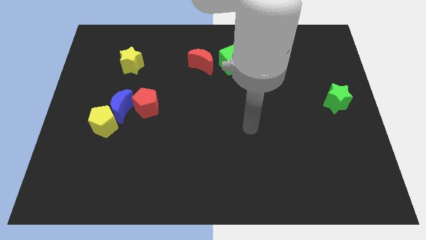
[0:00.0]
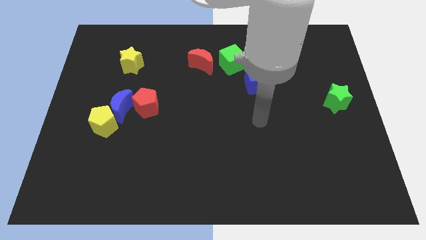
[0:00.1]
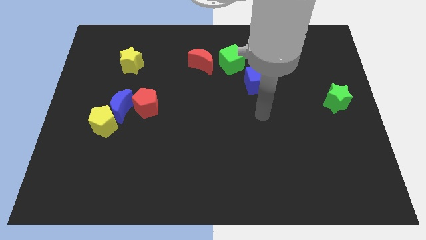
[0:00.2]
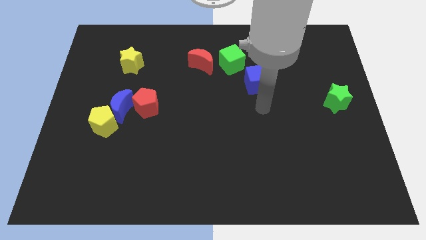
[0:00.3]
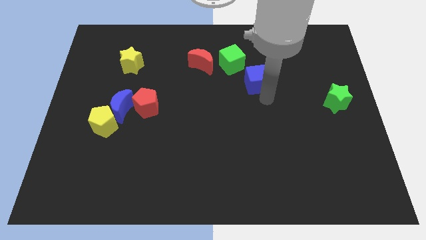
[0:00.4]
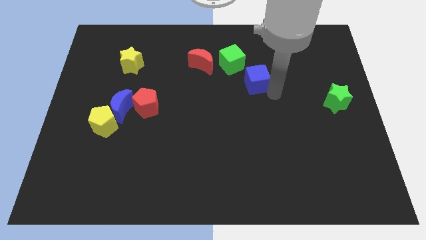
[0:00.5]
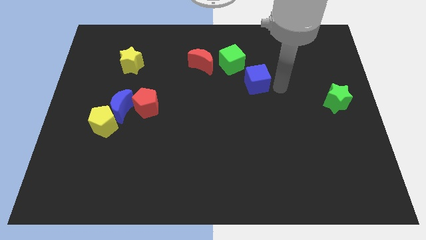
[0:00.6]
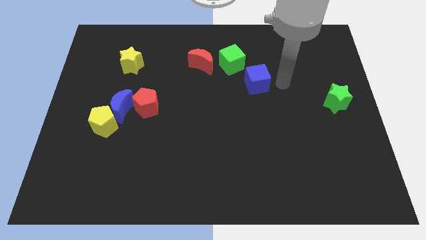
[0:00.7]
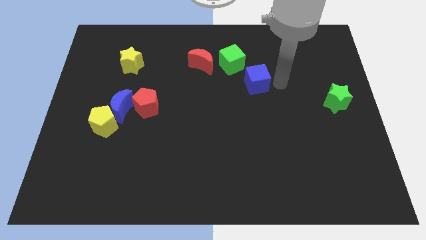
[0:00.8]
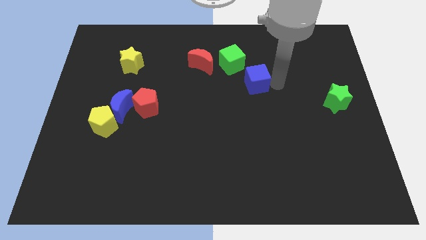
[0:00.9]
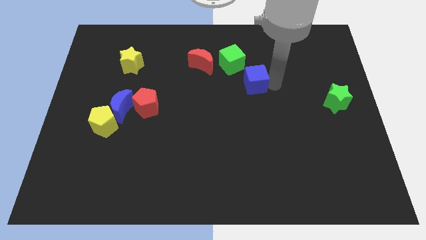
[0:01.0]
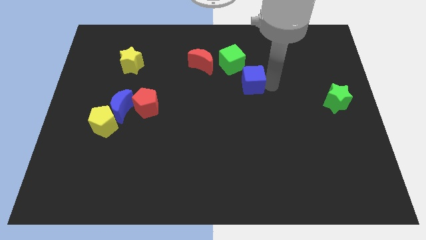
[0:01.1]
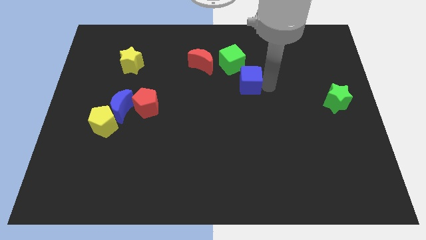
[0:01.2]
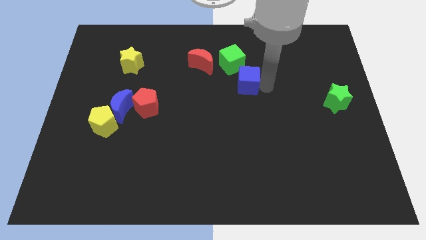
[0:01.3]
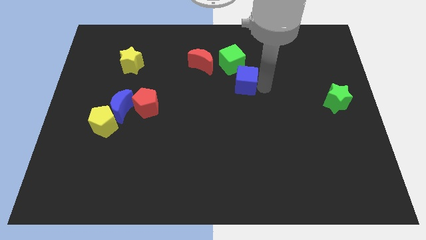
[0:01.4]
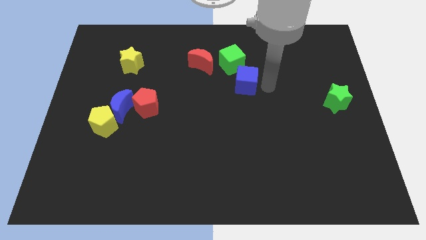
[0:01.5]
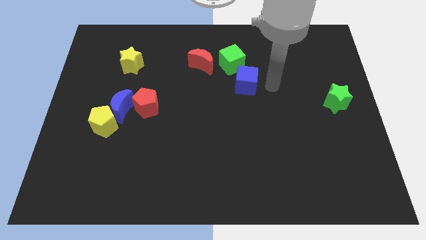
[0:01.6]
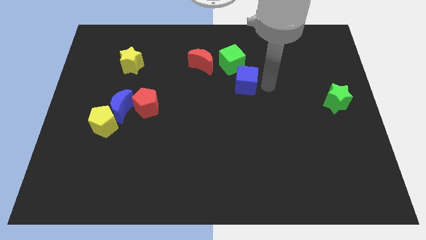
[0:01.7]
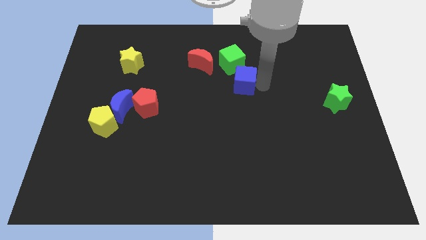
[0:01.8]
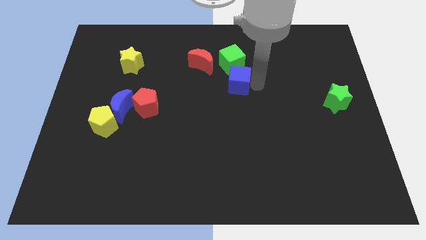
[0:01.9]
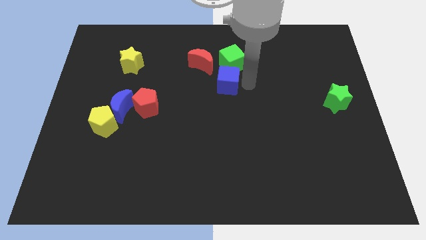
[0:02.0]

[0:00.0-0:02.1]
push the blue cube slightly to the left

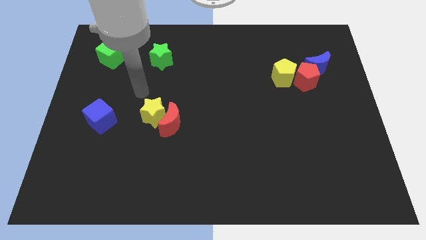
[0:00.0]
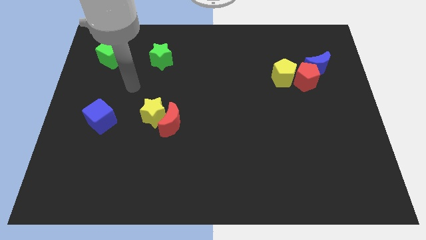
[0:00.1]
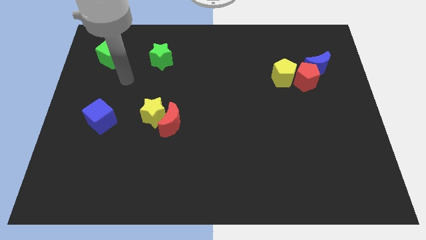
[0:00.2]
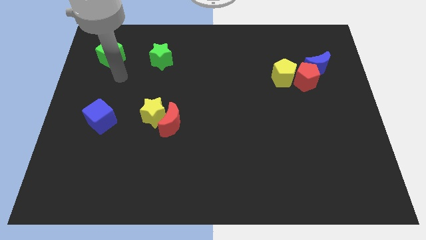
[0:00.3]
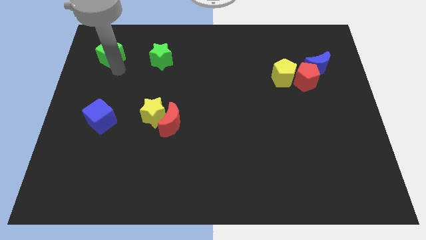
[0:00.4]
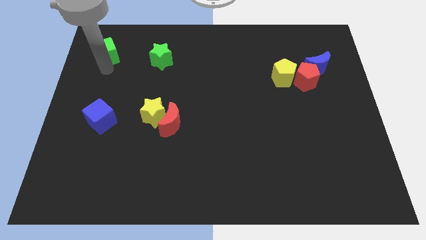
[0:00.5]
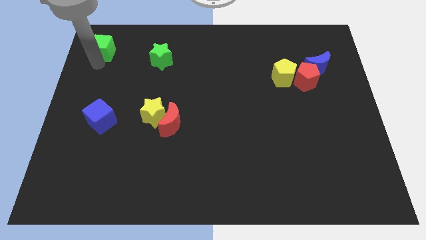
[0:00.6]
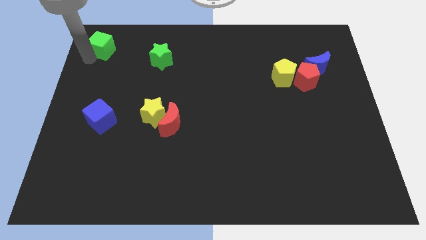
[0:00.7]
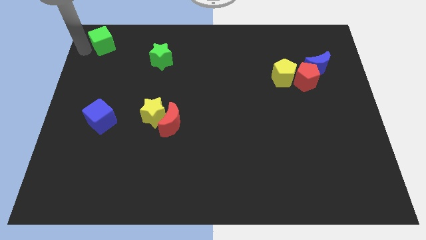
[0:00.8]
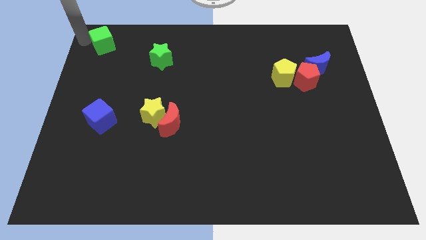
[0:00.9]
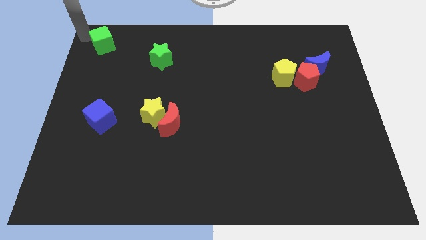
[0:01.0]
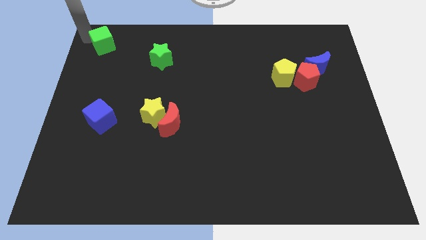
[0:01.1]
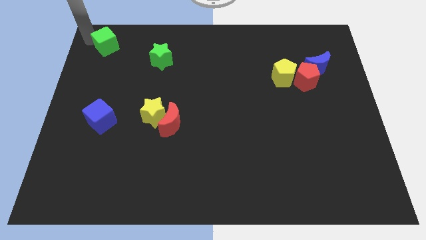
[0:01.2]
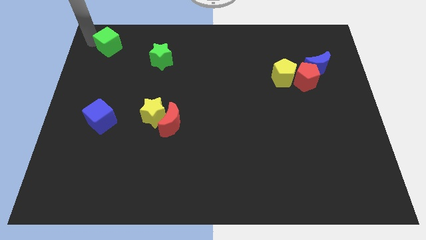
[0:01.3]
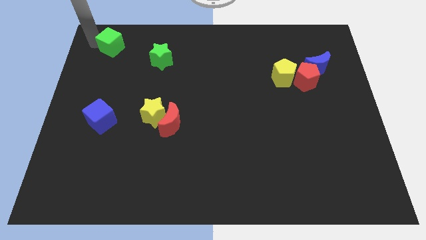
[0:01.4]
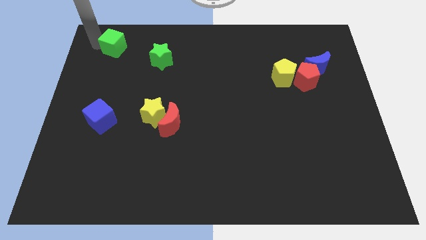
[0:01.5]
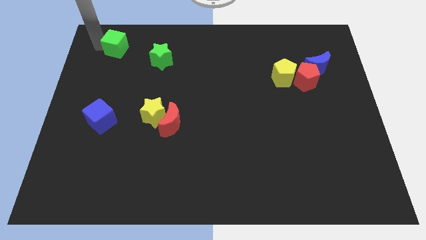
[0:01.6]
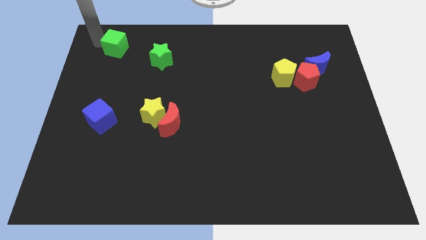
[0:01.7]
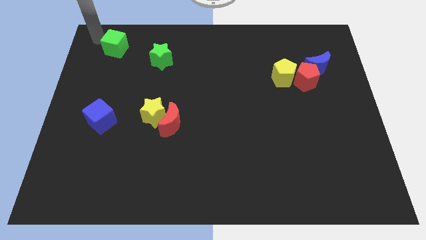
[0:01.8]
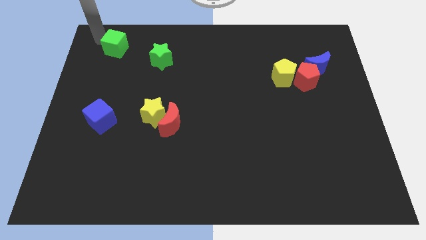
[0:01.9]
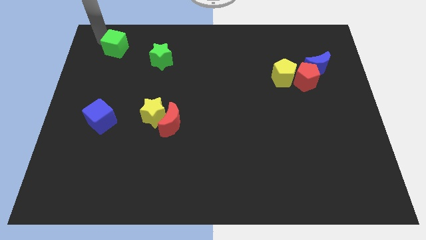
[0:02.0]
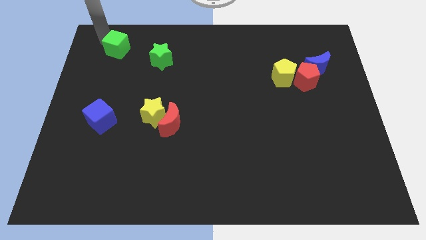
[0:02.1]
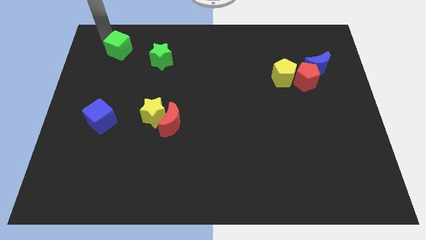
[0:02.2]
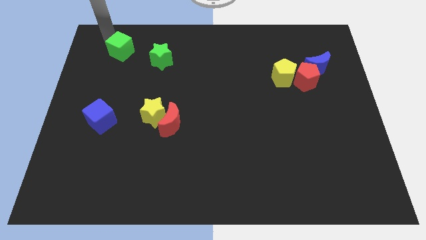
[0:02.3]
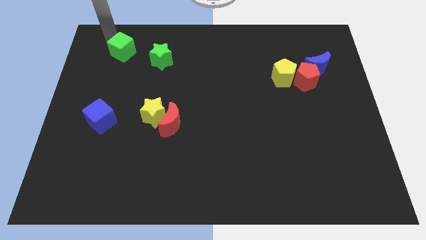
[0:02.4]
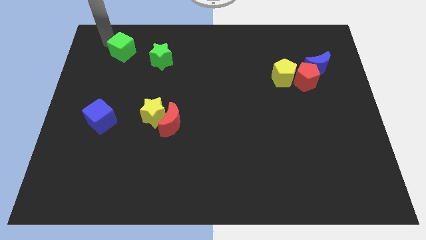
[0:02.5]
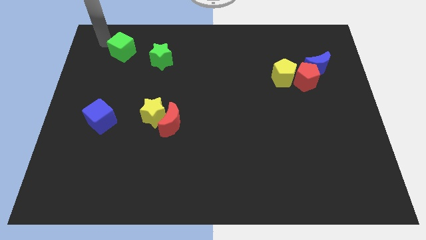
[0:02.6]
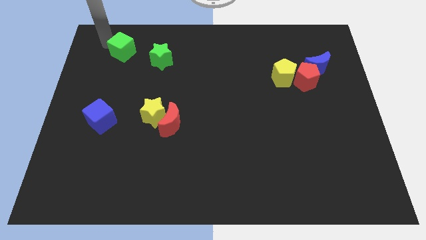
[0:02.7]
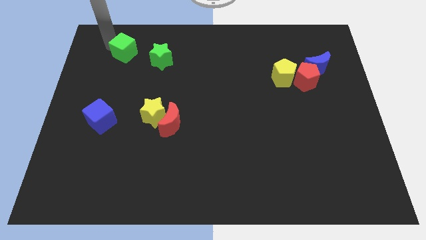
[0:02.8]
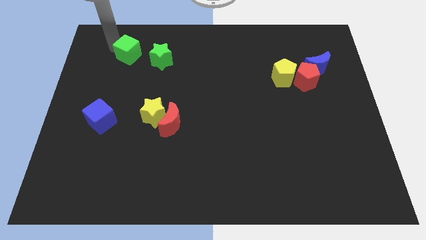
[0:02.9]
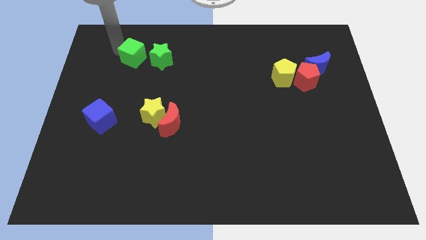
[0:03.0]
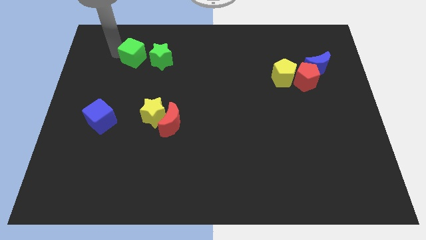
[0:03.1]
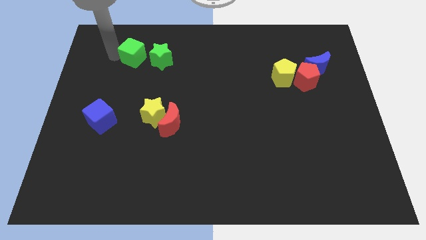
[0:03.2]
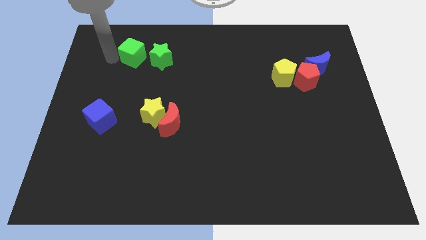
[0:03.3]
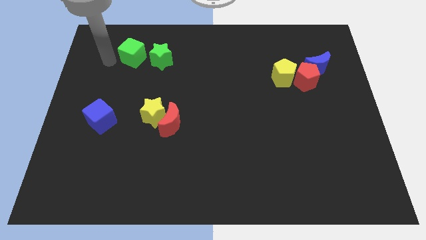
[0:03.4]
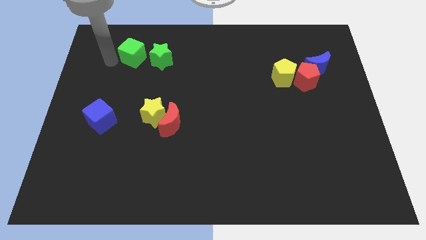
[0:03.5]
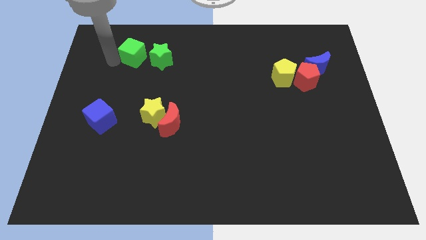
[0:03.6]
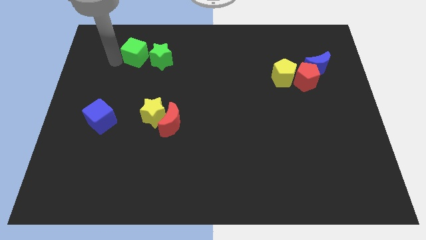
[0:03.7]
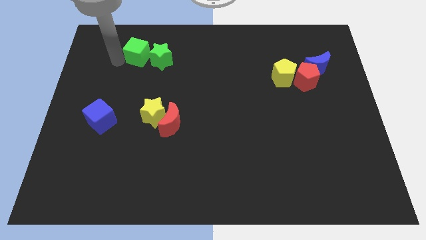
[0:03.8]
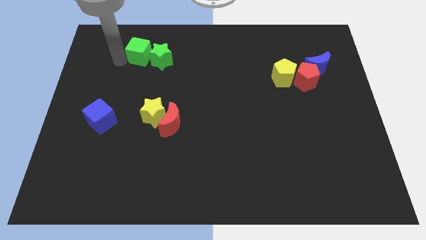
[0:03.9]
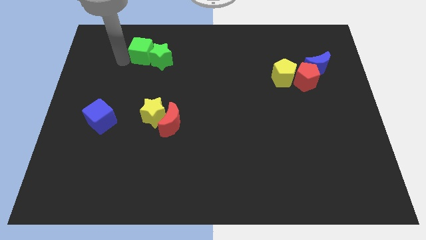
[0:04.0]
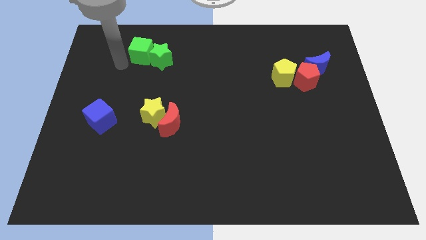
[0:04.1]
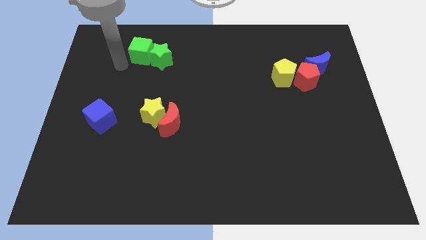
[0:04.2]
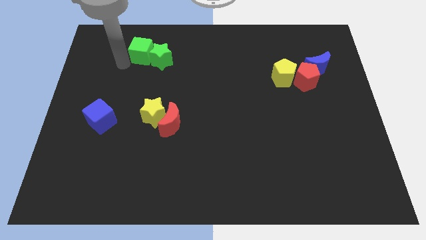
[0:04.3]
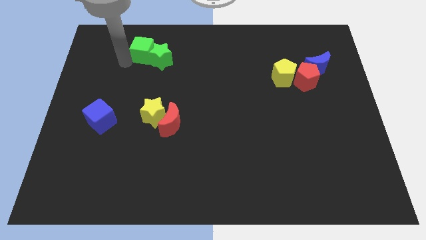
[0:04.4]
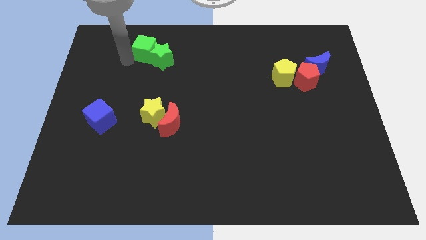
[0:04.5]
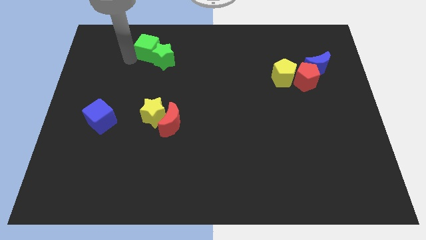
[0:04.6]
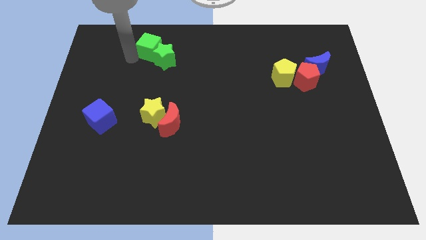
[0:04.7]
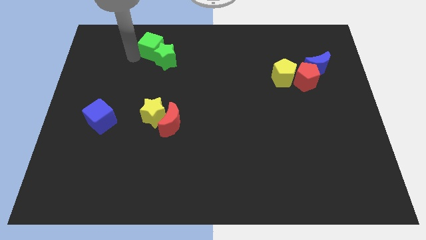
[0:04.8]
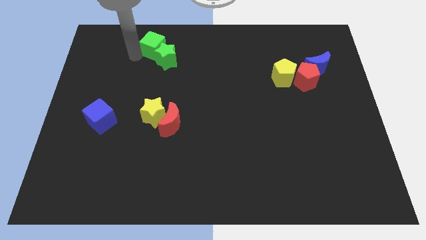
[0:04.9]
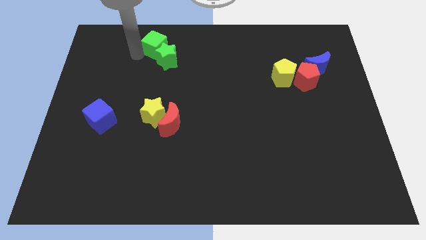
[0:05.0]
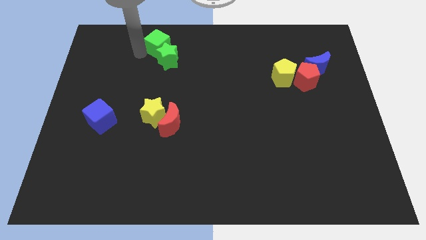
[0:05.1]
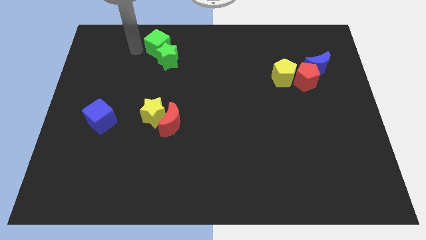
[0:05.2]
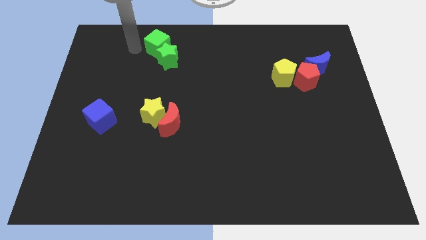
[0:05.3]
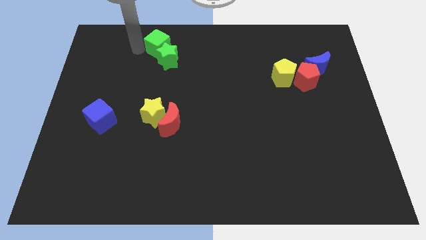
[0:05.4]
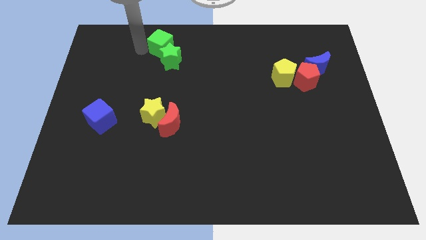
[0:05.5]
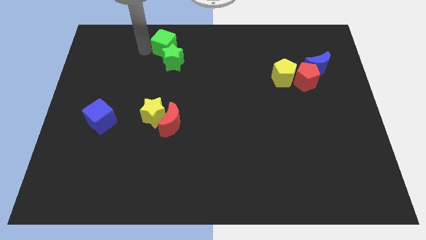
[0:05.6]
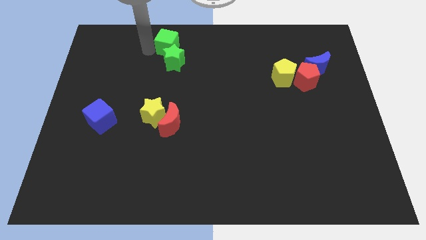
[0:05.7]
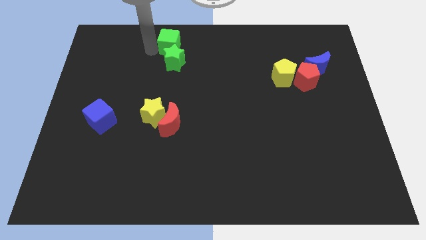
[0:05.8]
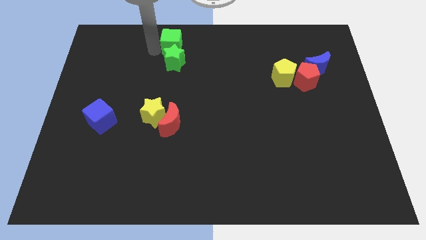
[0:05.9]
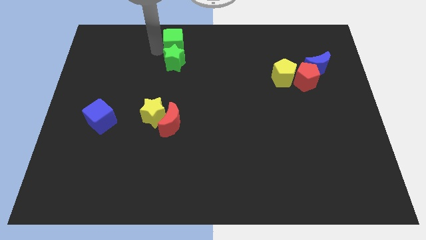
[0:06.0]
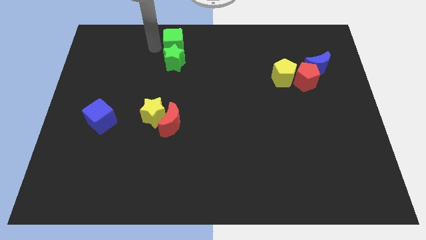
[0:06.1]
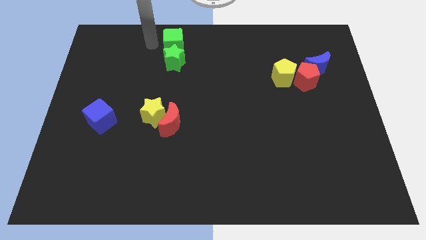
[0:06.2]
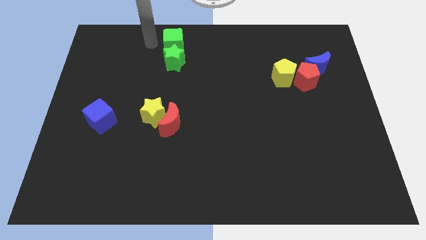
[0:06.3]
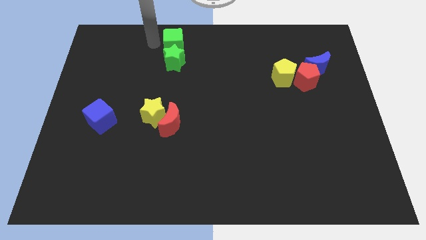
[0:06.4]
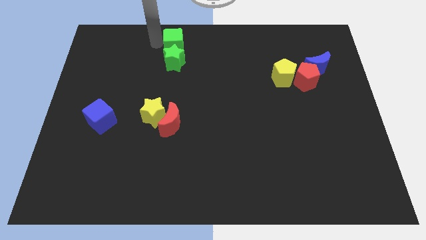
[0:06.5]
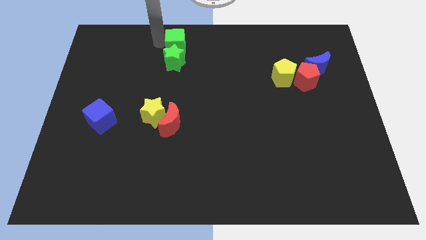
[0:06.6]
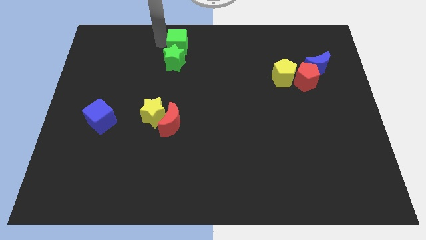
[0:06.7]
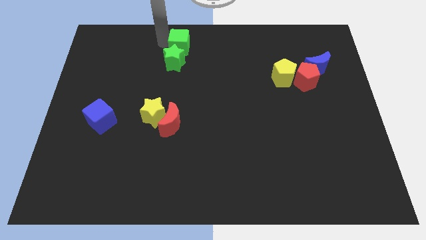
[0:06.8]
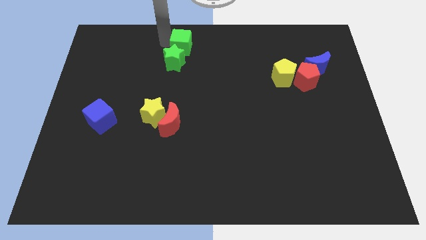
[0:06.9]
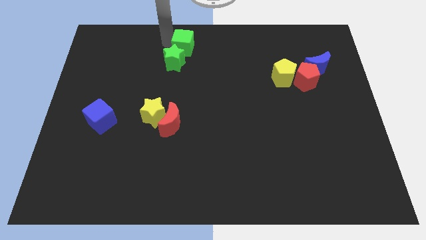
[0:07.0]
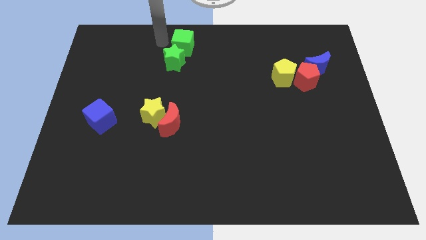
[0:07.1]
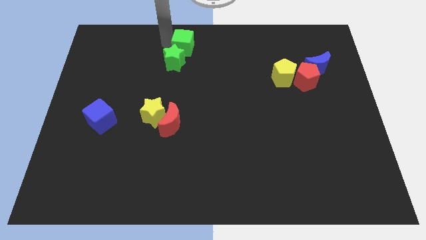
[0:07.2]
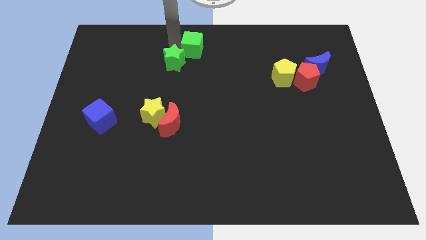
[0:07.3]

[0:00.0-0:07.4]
move the green cube right
